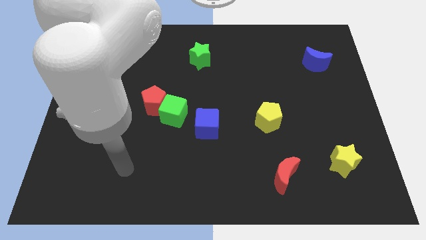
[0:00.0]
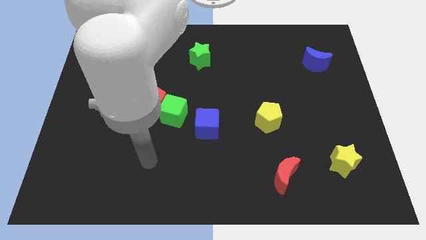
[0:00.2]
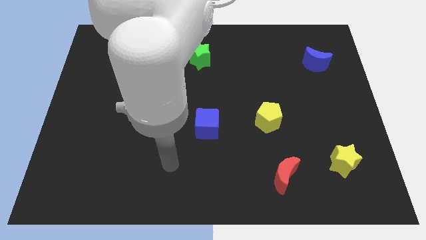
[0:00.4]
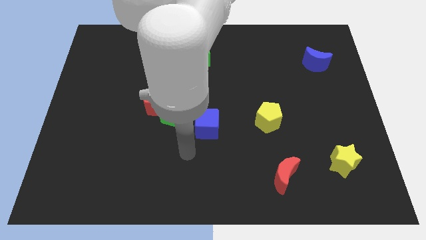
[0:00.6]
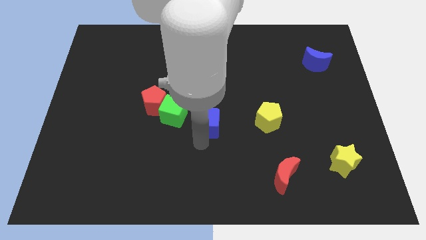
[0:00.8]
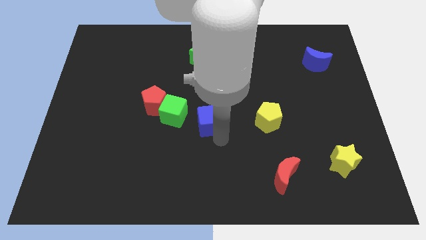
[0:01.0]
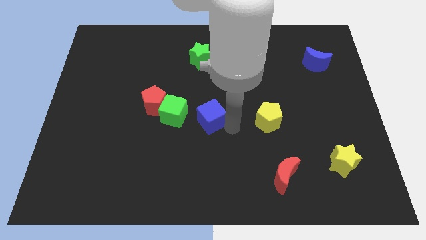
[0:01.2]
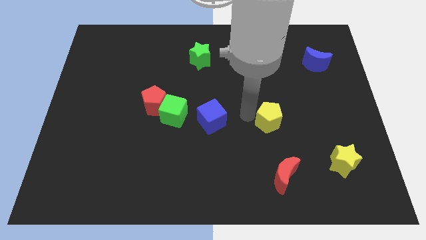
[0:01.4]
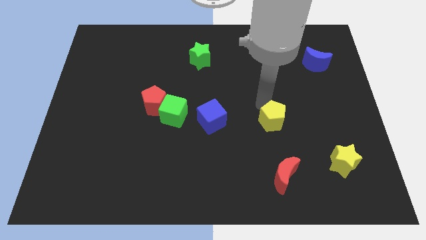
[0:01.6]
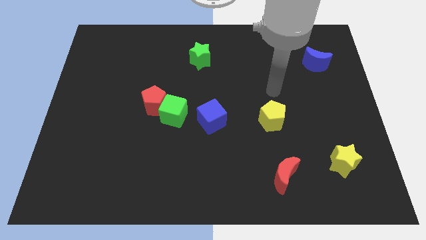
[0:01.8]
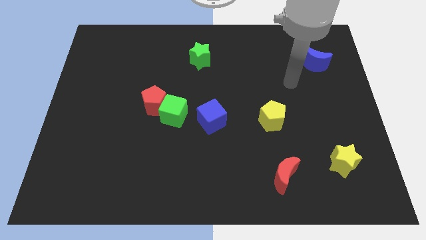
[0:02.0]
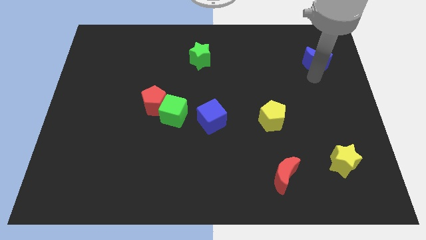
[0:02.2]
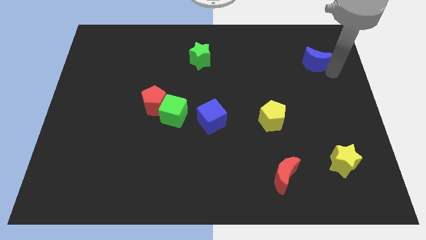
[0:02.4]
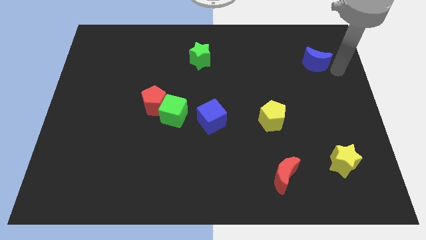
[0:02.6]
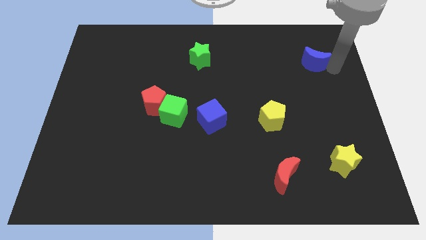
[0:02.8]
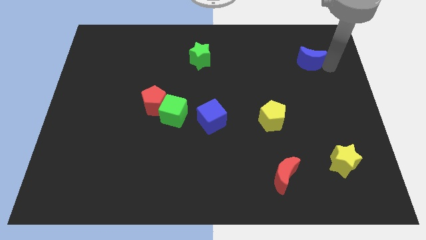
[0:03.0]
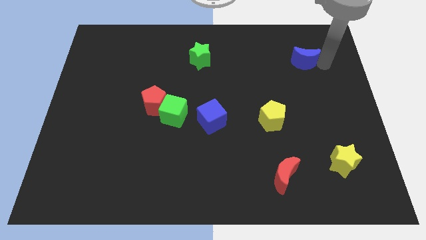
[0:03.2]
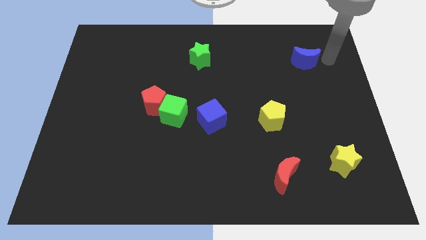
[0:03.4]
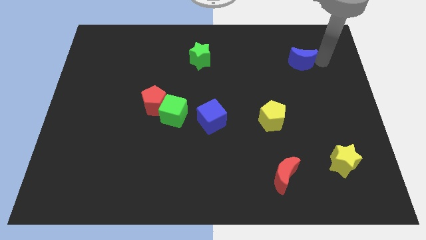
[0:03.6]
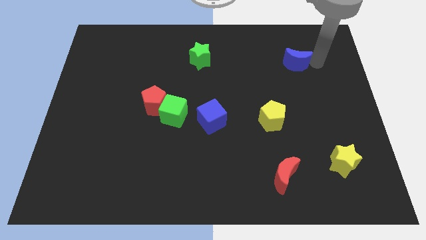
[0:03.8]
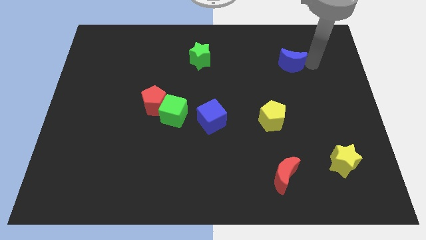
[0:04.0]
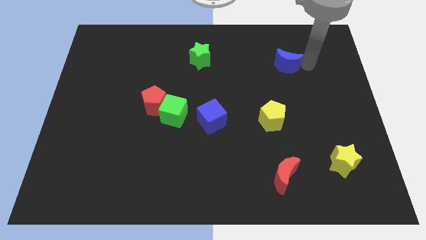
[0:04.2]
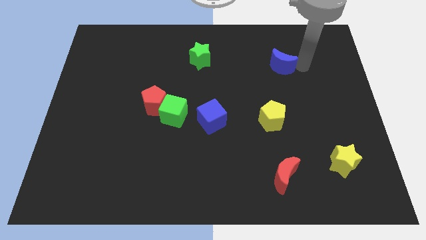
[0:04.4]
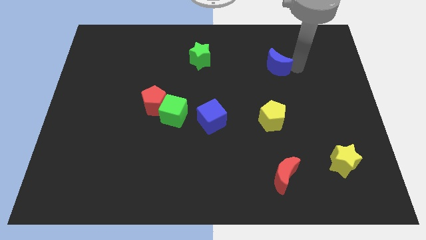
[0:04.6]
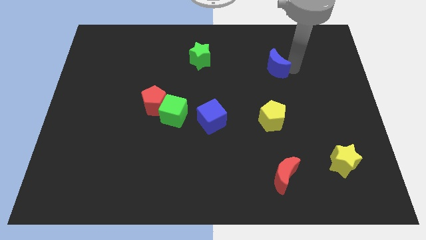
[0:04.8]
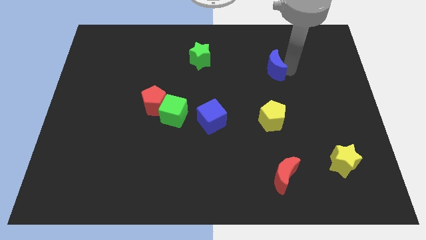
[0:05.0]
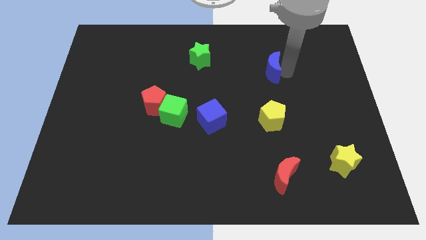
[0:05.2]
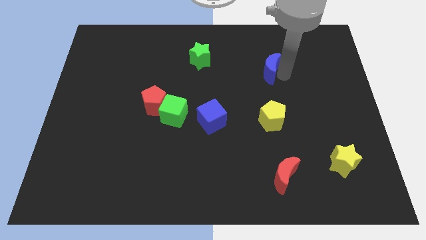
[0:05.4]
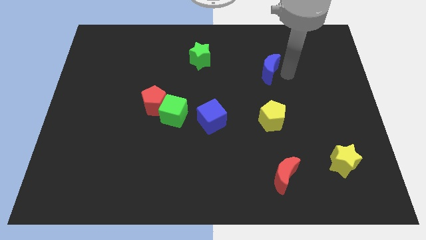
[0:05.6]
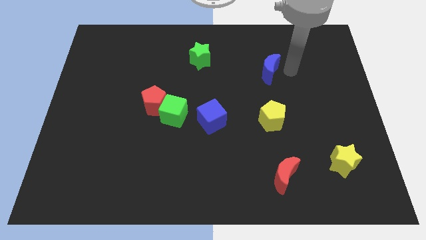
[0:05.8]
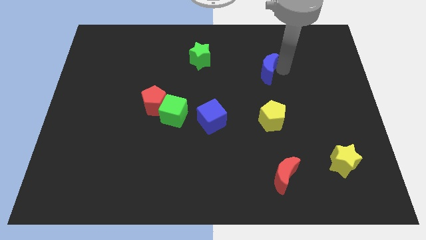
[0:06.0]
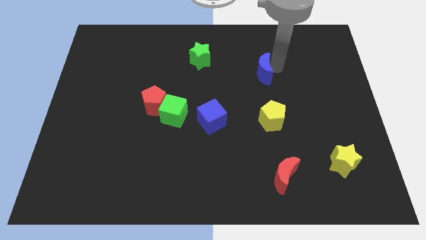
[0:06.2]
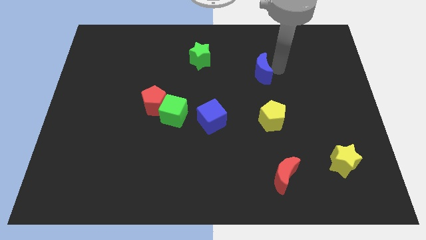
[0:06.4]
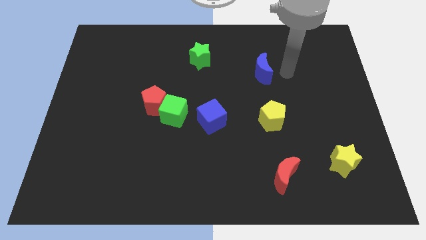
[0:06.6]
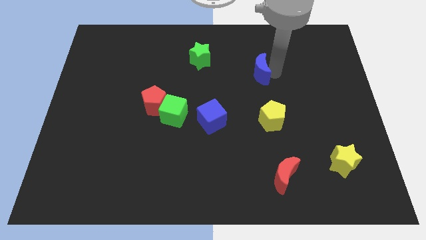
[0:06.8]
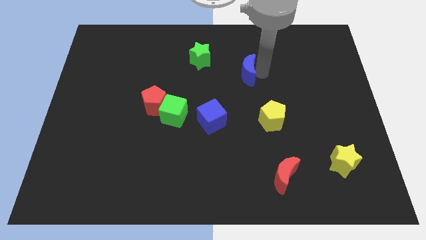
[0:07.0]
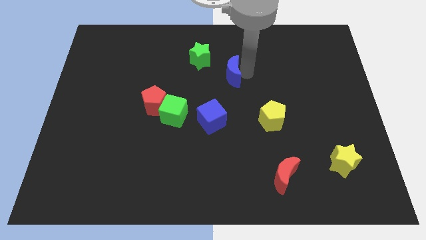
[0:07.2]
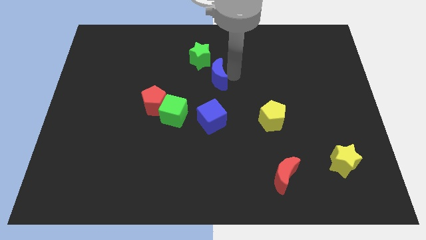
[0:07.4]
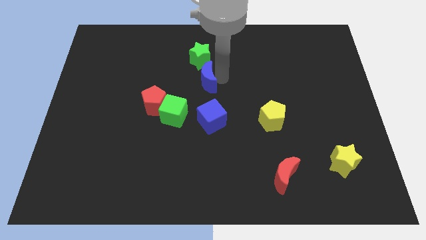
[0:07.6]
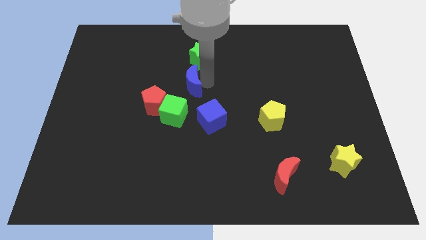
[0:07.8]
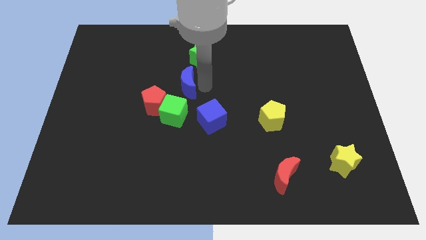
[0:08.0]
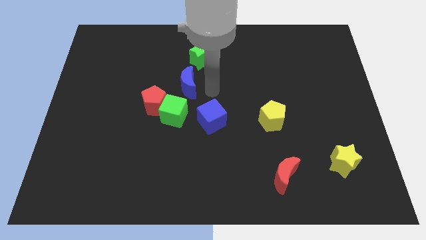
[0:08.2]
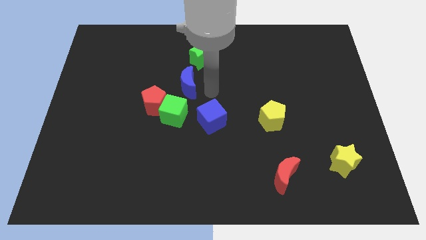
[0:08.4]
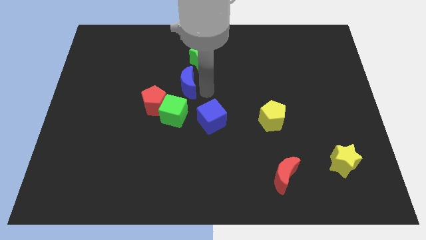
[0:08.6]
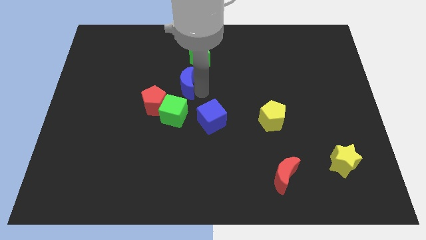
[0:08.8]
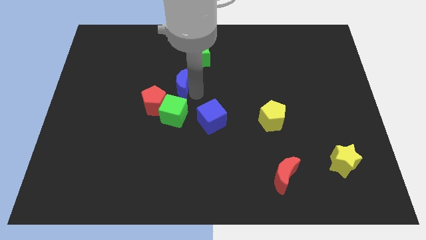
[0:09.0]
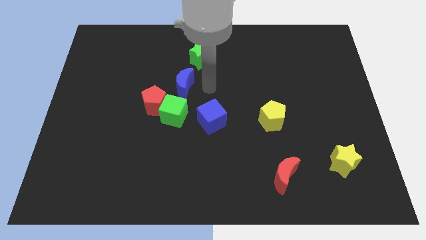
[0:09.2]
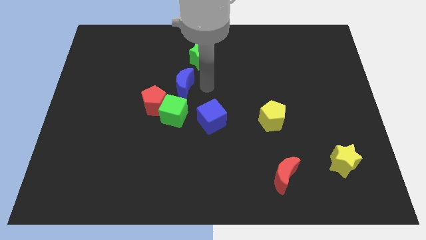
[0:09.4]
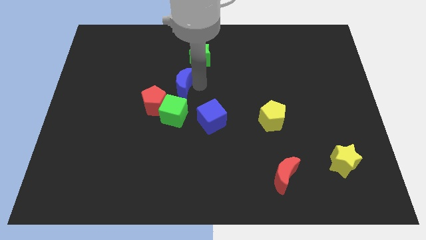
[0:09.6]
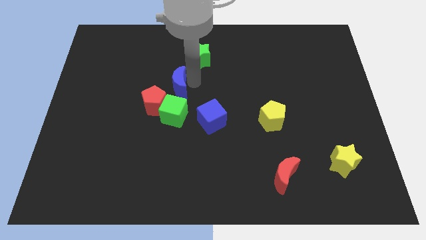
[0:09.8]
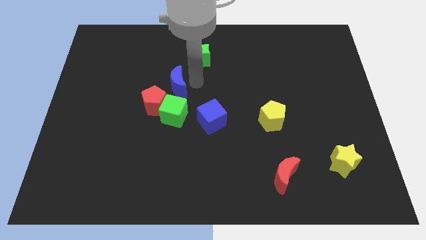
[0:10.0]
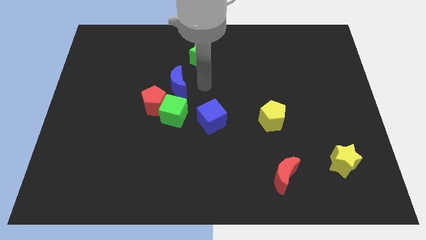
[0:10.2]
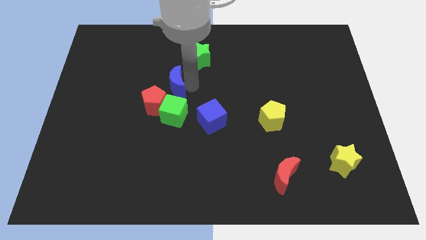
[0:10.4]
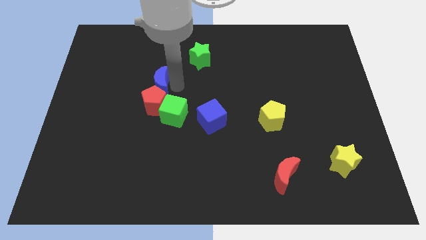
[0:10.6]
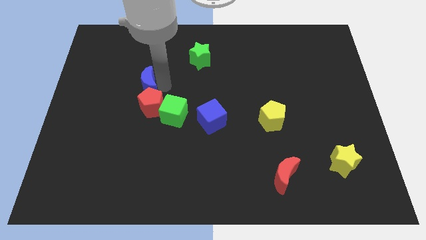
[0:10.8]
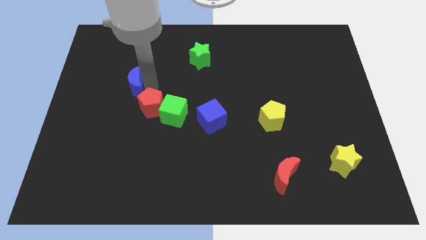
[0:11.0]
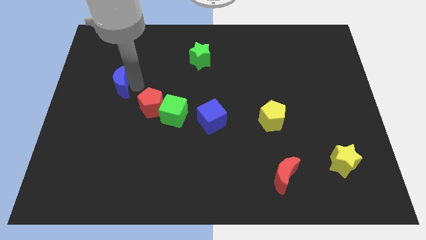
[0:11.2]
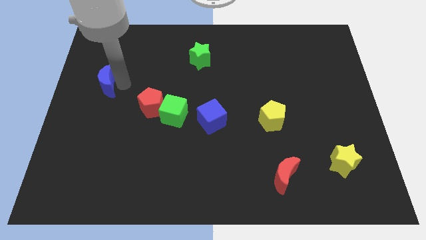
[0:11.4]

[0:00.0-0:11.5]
move the blue moon to the left side
